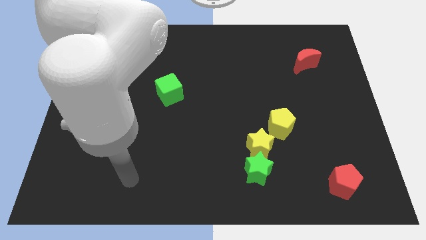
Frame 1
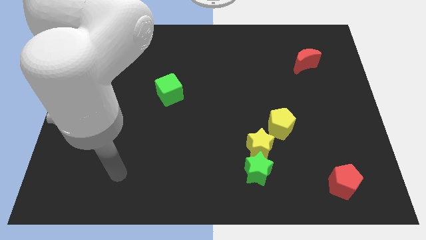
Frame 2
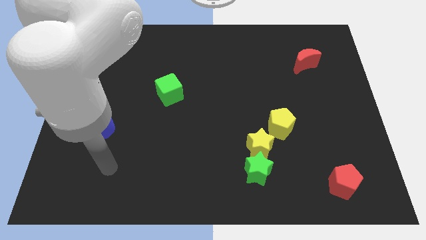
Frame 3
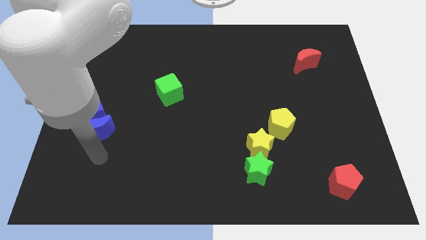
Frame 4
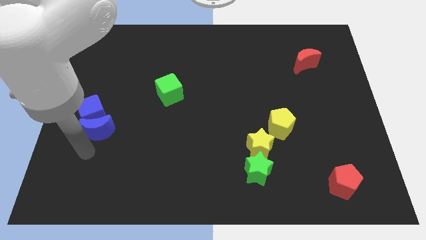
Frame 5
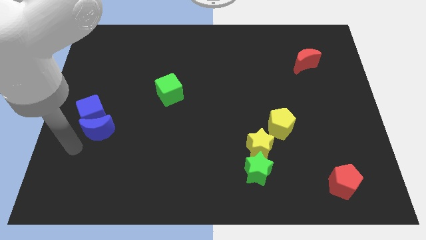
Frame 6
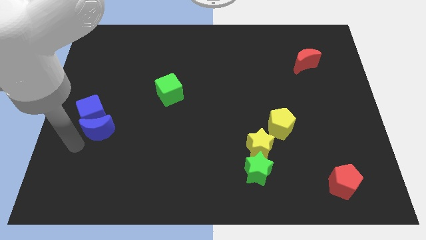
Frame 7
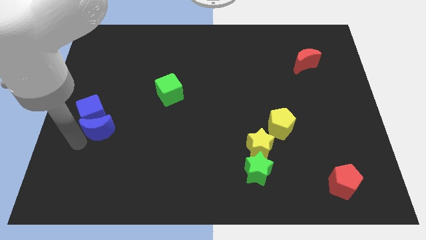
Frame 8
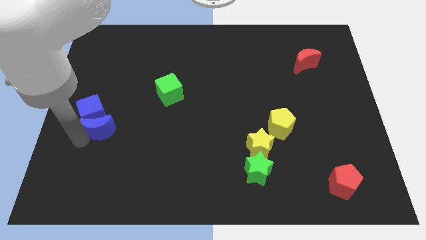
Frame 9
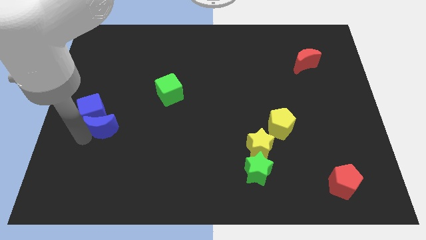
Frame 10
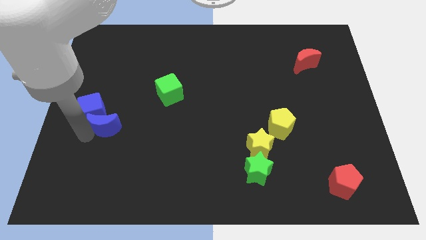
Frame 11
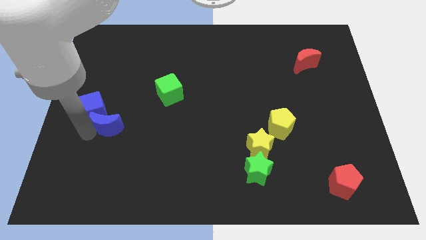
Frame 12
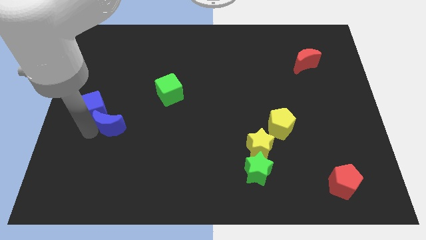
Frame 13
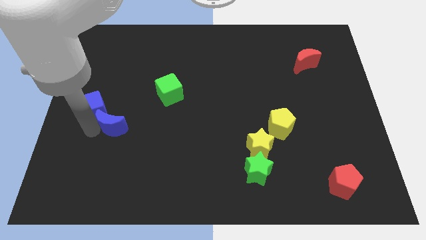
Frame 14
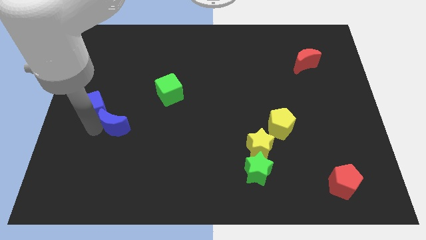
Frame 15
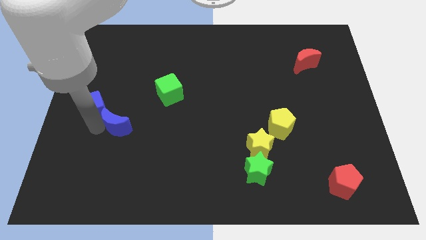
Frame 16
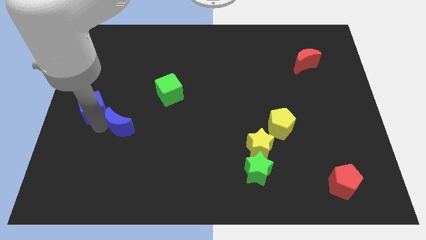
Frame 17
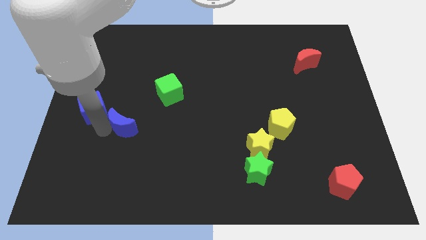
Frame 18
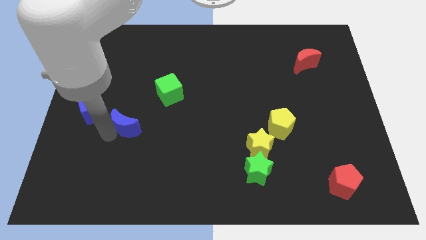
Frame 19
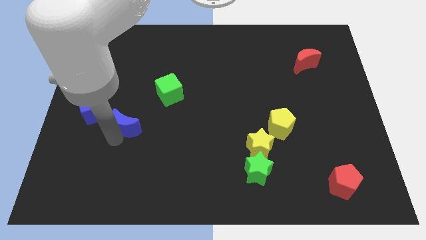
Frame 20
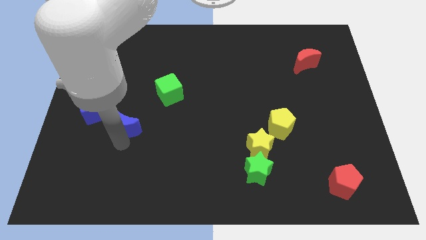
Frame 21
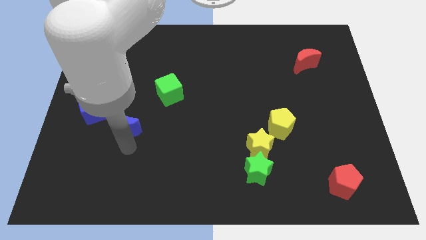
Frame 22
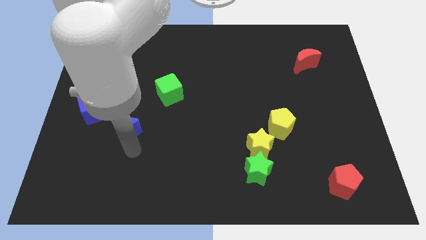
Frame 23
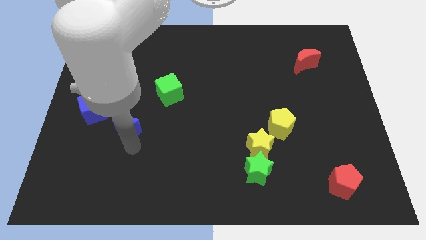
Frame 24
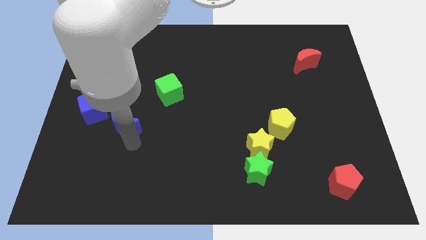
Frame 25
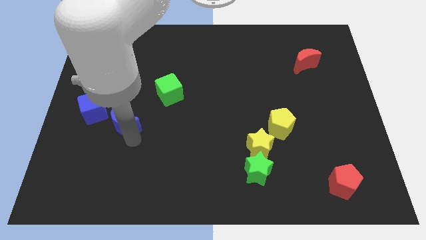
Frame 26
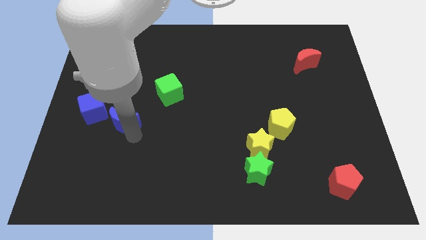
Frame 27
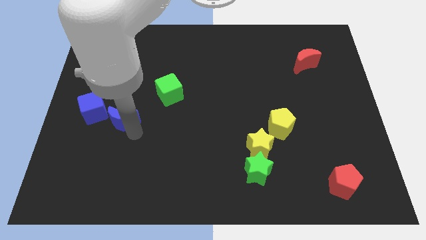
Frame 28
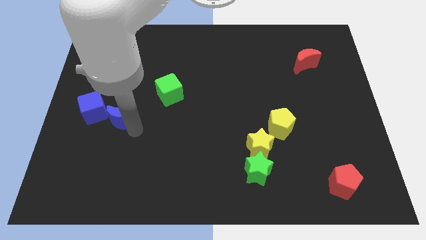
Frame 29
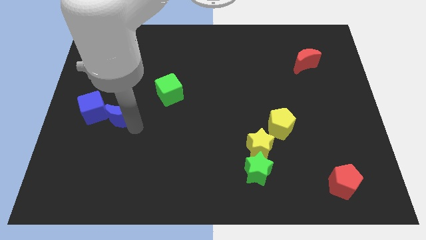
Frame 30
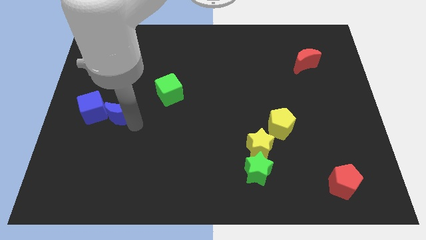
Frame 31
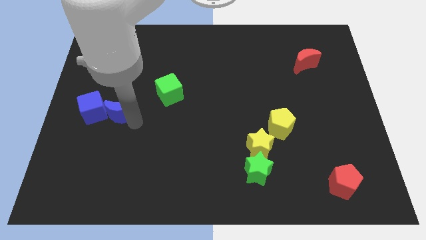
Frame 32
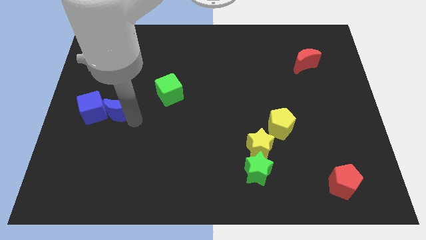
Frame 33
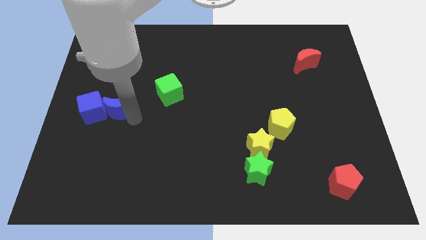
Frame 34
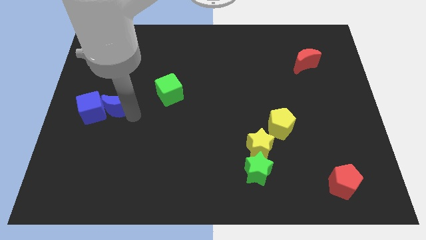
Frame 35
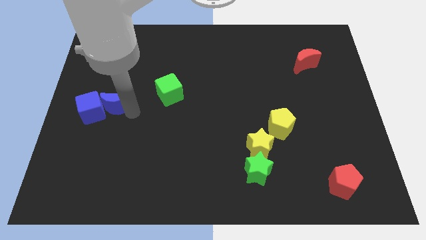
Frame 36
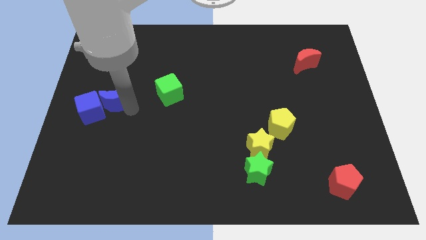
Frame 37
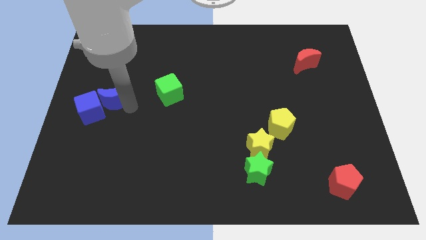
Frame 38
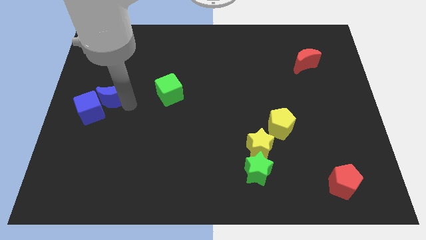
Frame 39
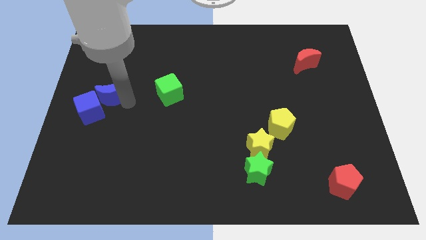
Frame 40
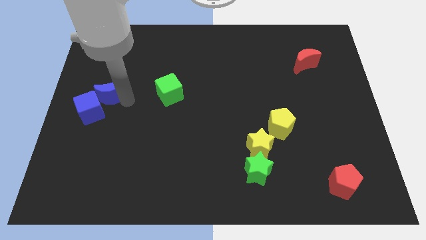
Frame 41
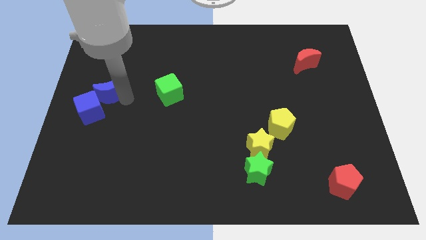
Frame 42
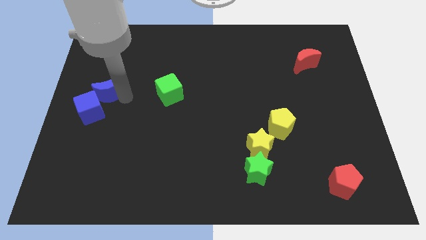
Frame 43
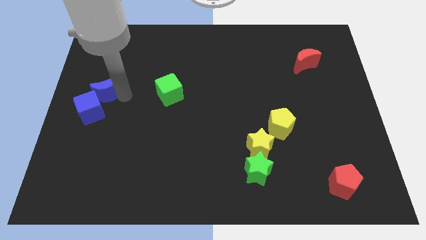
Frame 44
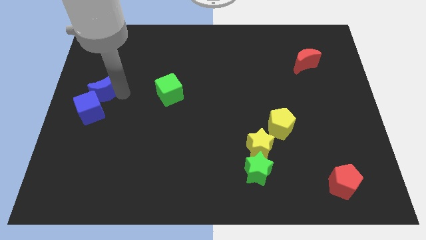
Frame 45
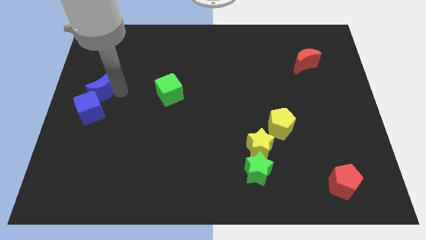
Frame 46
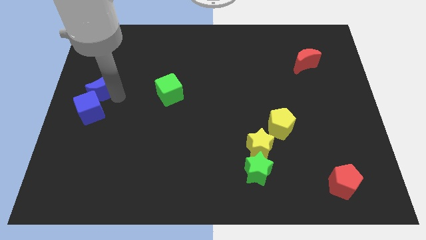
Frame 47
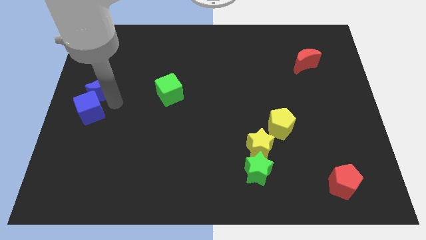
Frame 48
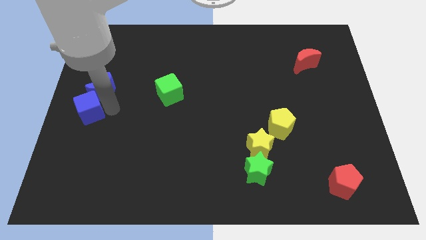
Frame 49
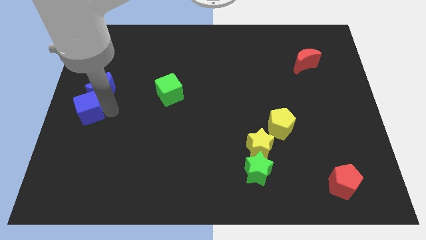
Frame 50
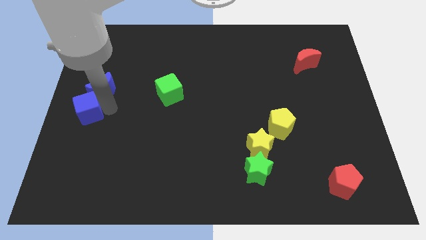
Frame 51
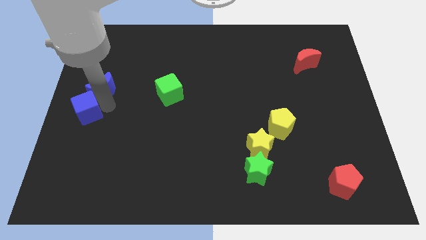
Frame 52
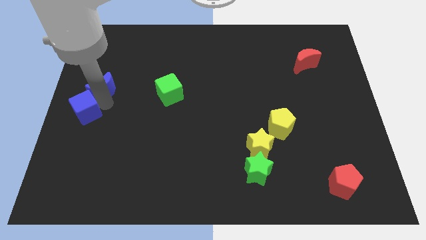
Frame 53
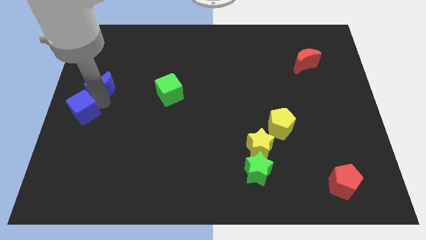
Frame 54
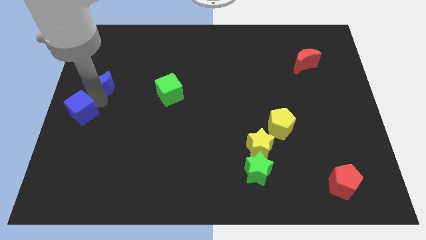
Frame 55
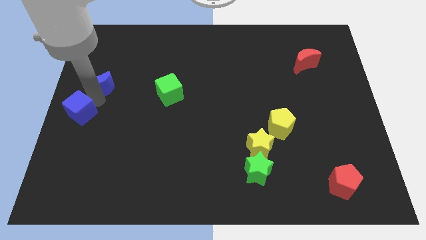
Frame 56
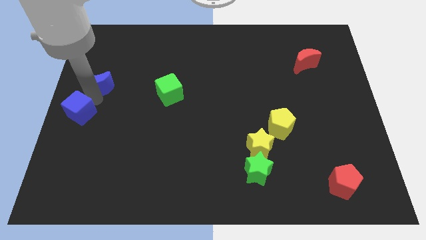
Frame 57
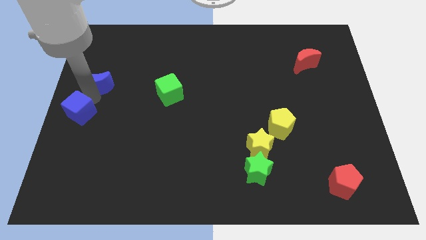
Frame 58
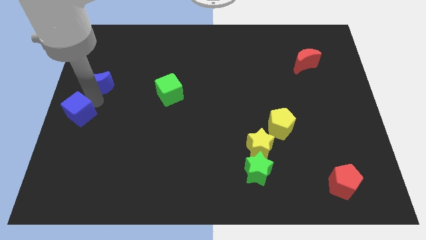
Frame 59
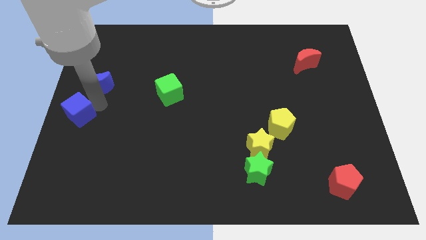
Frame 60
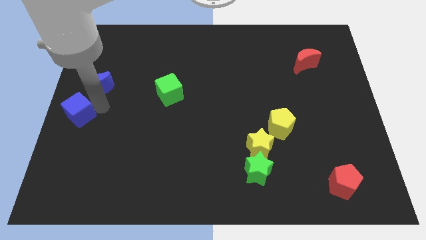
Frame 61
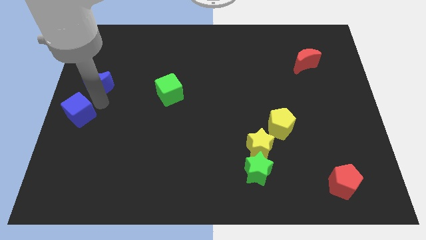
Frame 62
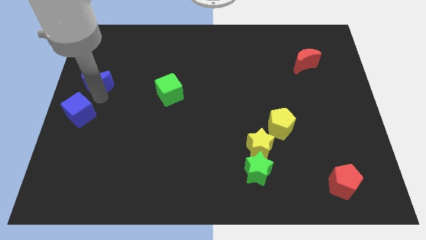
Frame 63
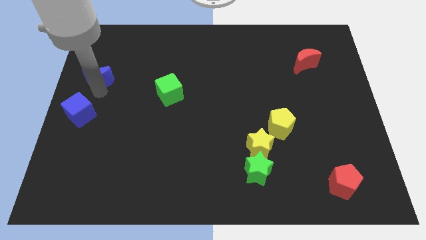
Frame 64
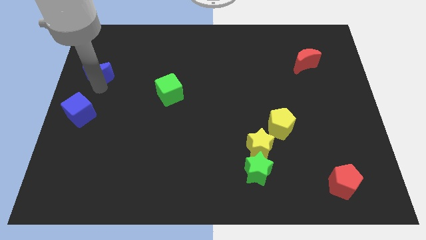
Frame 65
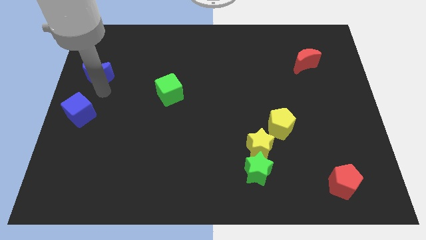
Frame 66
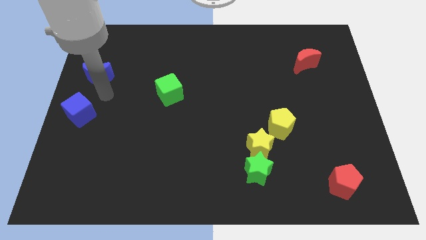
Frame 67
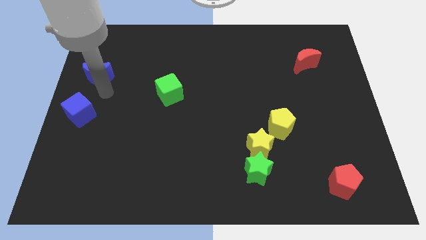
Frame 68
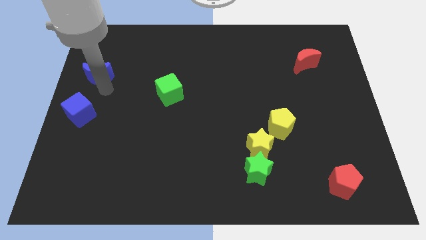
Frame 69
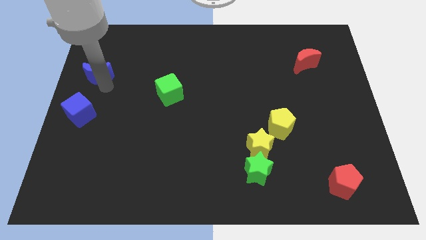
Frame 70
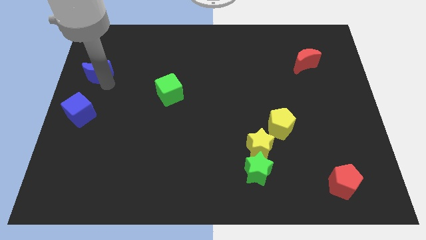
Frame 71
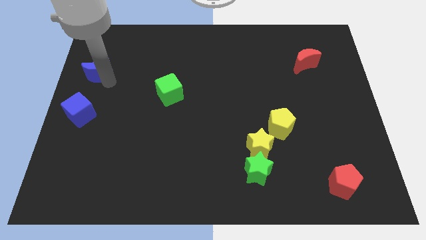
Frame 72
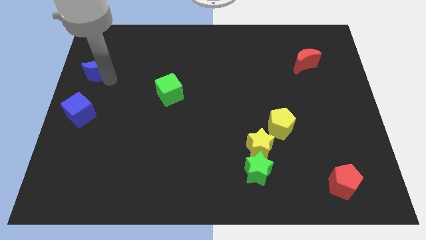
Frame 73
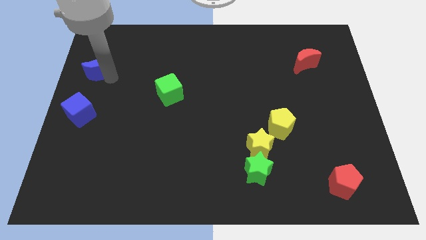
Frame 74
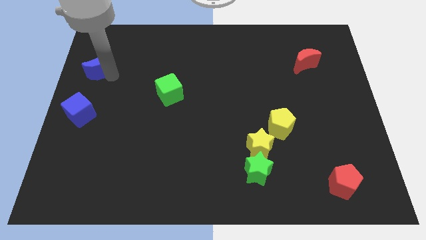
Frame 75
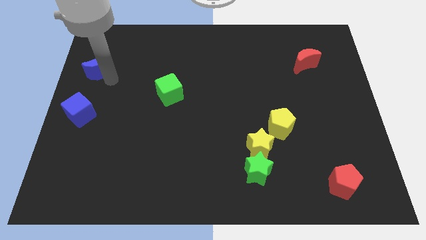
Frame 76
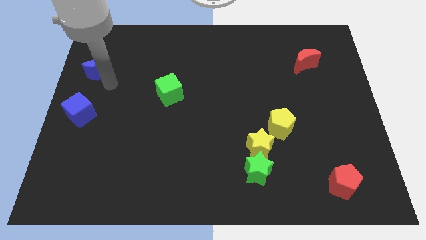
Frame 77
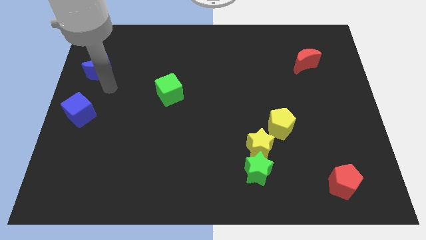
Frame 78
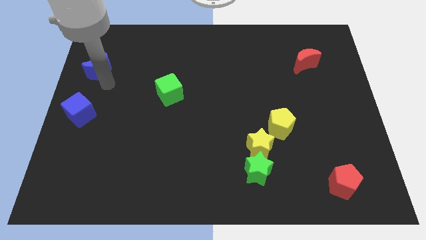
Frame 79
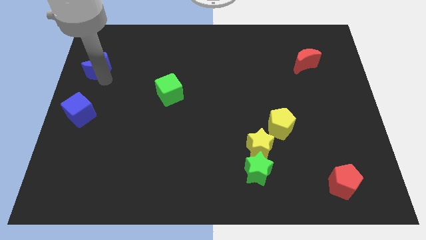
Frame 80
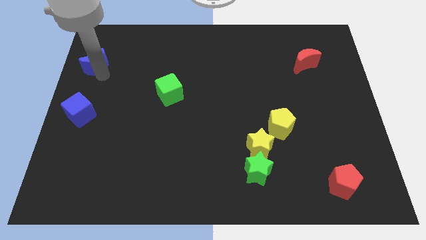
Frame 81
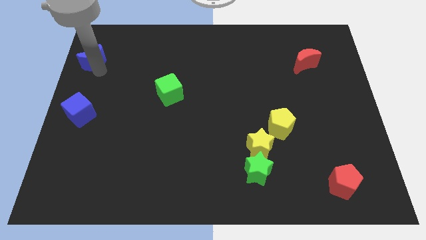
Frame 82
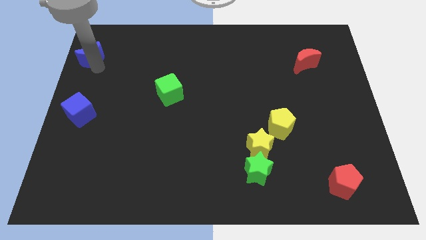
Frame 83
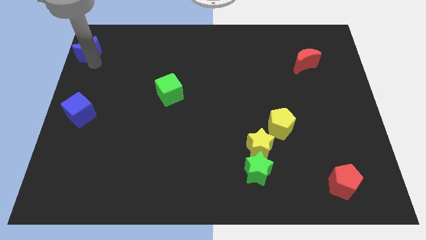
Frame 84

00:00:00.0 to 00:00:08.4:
slide the blue moon to the upper left corner
